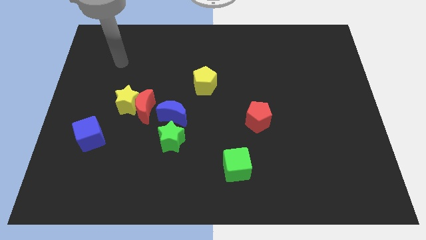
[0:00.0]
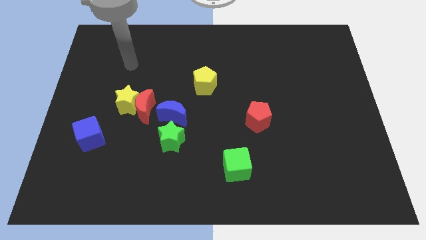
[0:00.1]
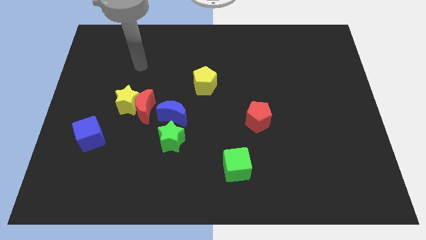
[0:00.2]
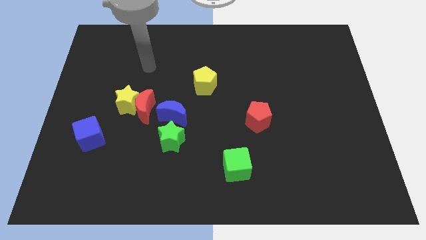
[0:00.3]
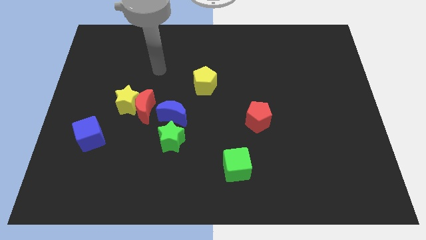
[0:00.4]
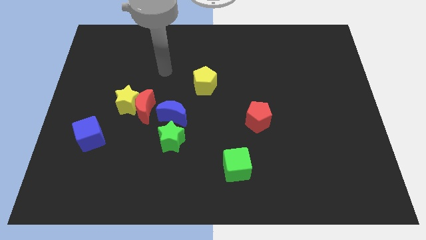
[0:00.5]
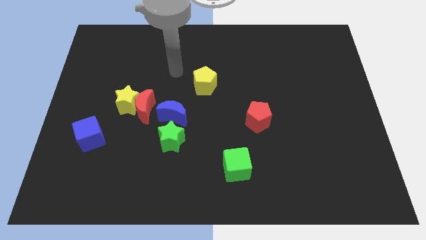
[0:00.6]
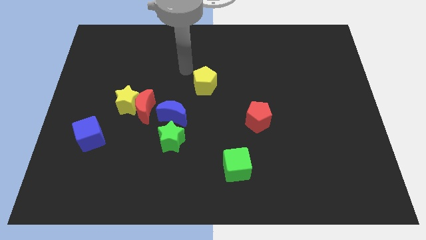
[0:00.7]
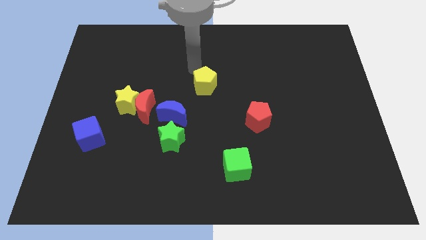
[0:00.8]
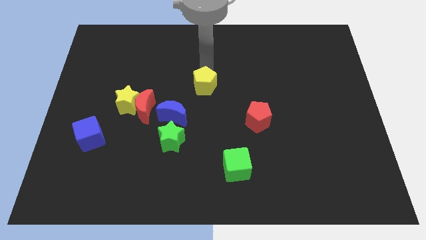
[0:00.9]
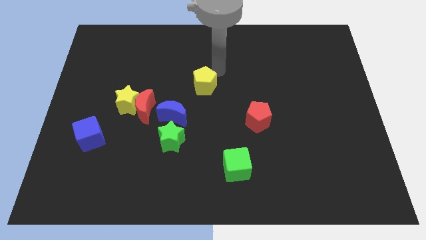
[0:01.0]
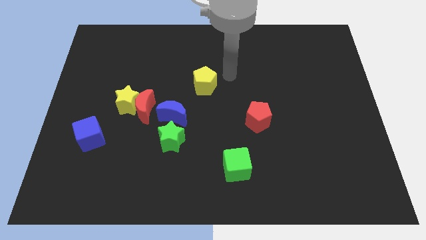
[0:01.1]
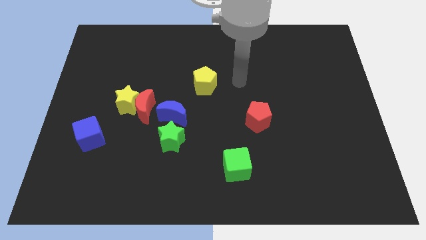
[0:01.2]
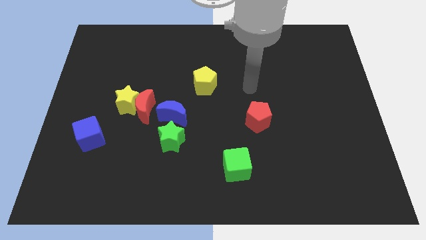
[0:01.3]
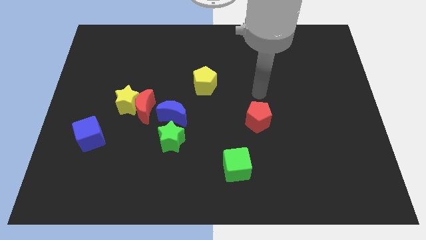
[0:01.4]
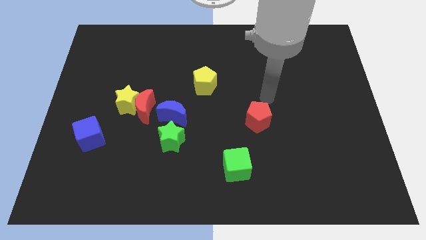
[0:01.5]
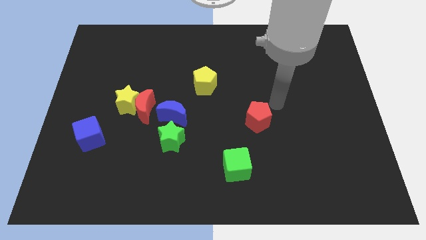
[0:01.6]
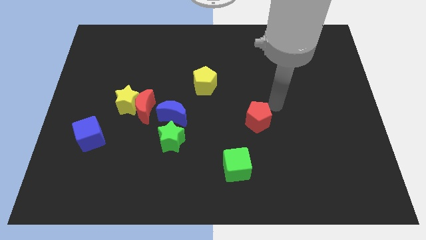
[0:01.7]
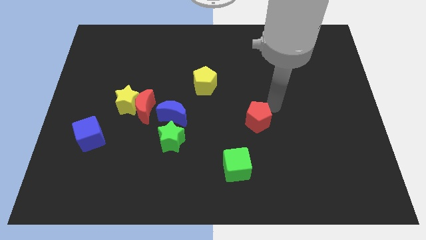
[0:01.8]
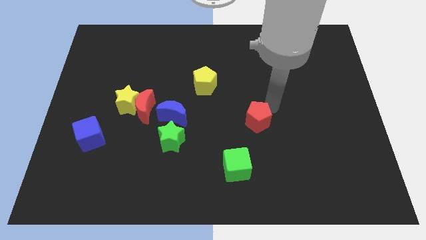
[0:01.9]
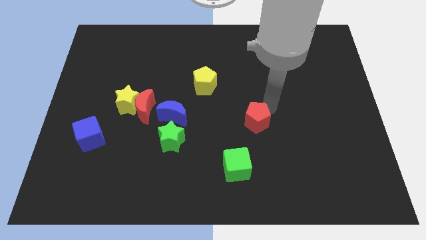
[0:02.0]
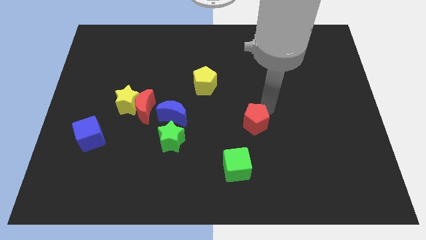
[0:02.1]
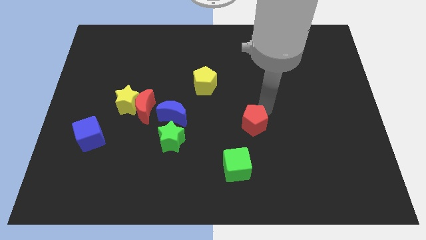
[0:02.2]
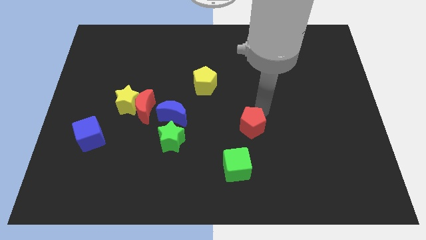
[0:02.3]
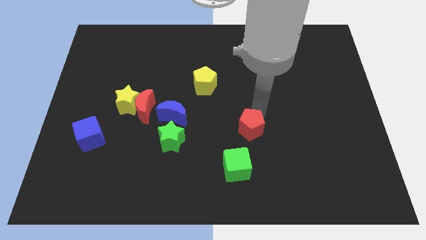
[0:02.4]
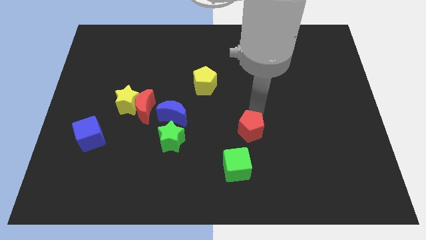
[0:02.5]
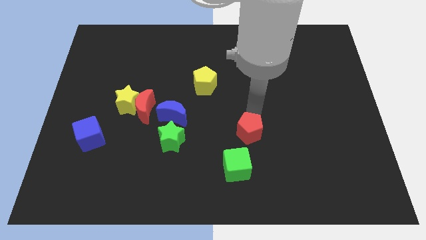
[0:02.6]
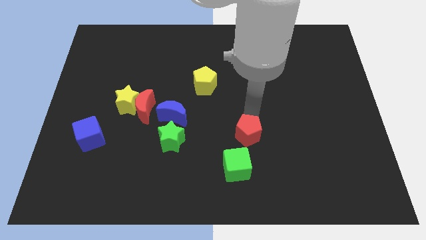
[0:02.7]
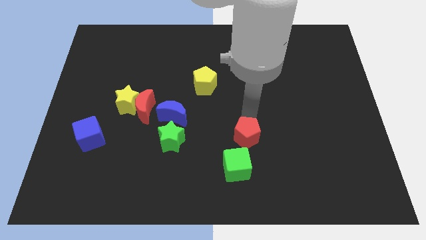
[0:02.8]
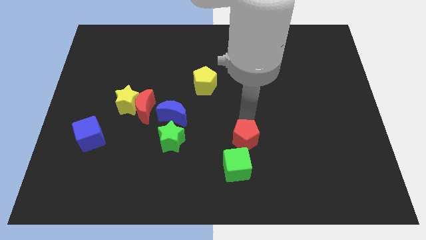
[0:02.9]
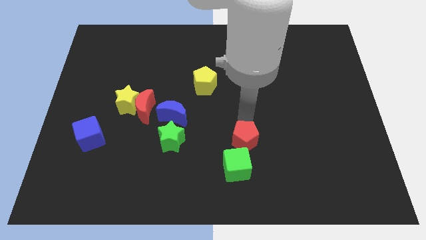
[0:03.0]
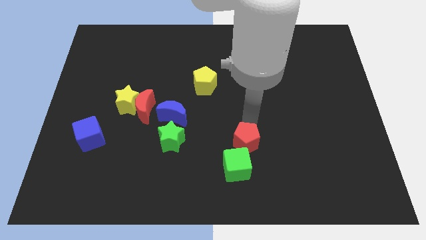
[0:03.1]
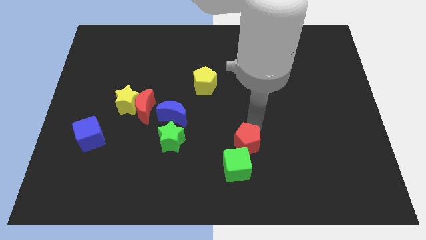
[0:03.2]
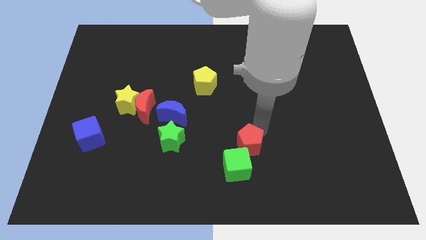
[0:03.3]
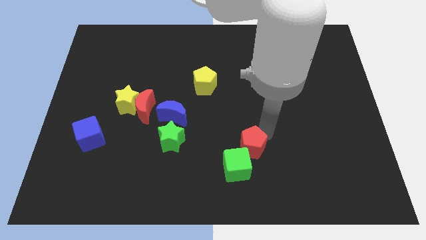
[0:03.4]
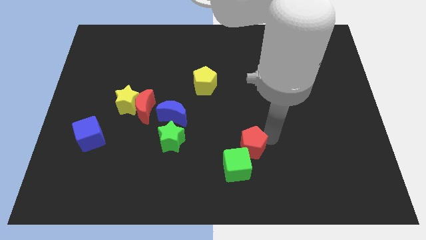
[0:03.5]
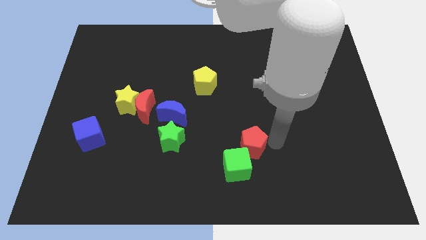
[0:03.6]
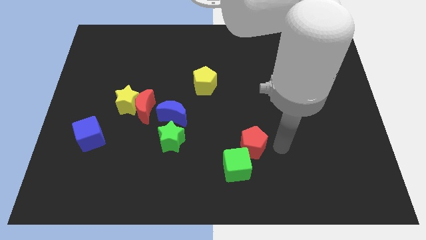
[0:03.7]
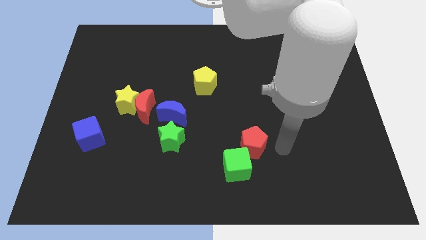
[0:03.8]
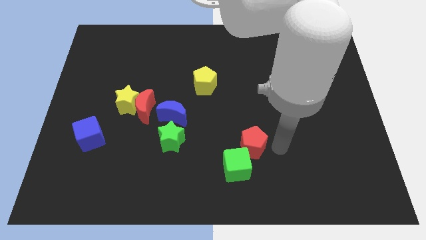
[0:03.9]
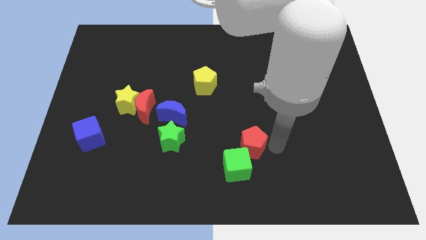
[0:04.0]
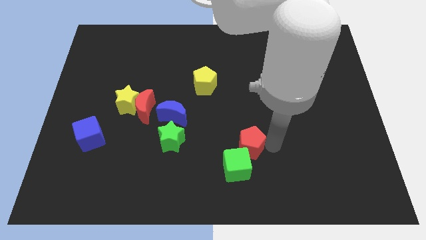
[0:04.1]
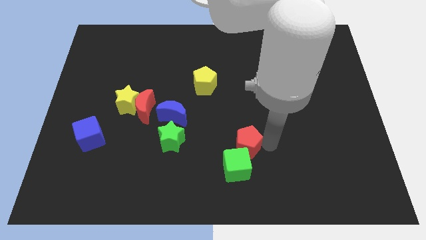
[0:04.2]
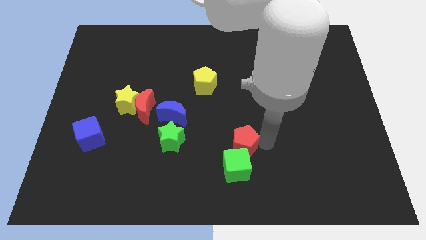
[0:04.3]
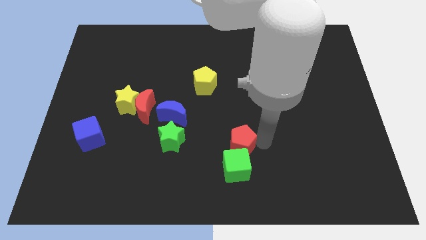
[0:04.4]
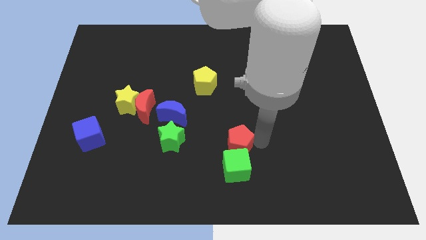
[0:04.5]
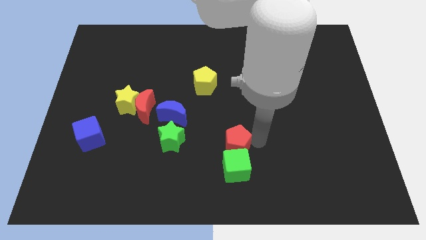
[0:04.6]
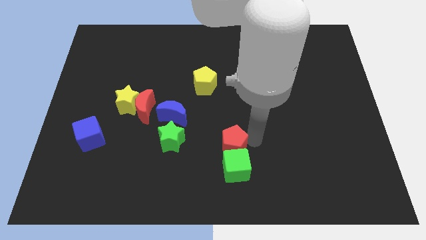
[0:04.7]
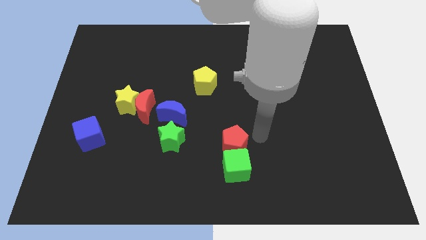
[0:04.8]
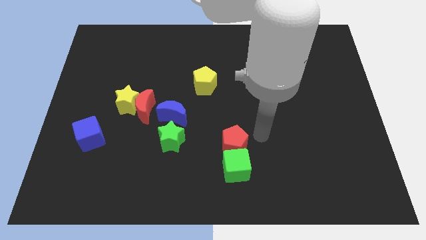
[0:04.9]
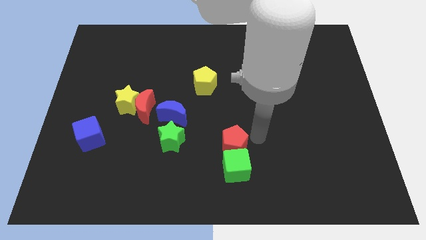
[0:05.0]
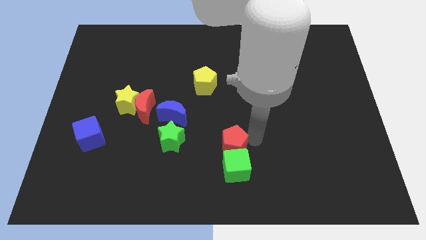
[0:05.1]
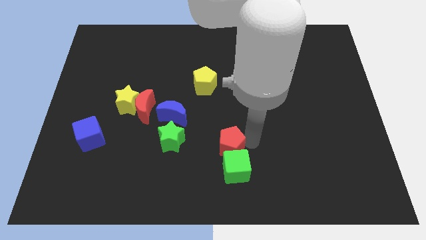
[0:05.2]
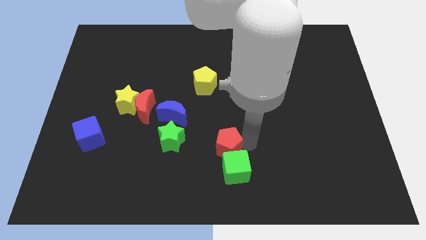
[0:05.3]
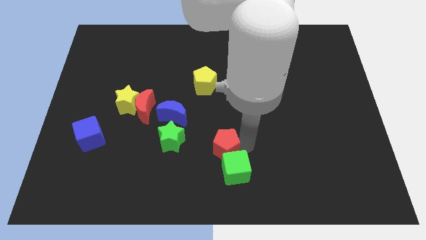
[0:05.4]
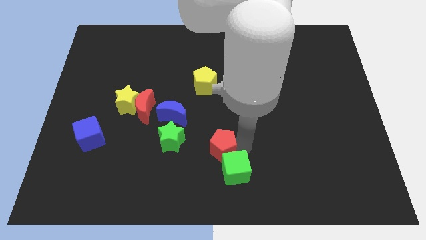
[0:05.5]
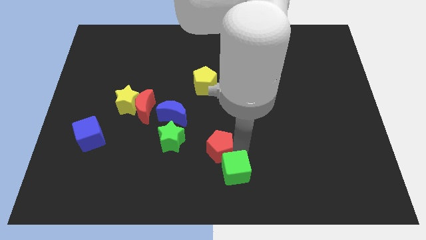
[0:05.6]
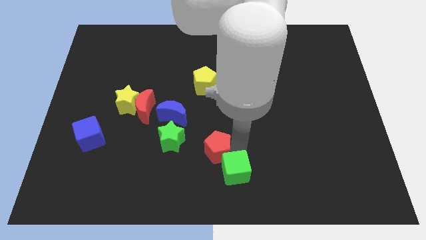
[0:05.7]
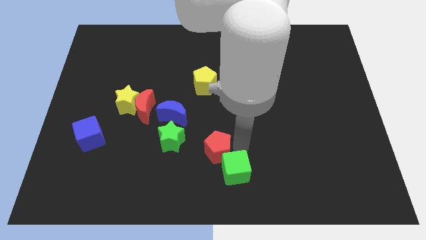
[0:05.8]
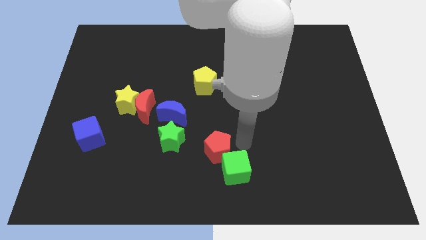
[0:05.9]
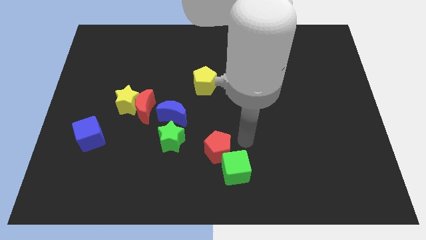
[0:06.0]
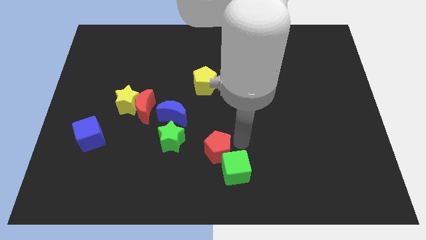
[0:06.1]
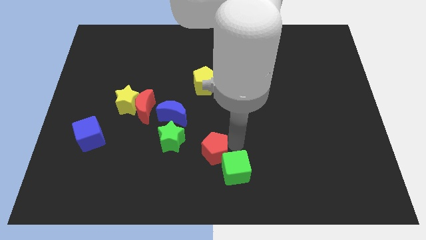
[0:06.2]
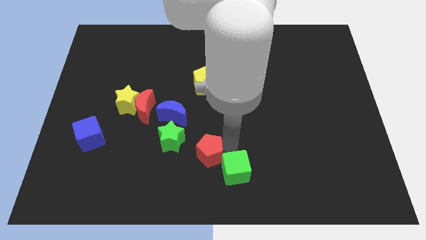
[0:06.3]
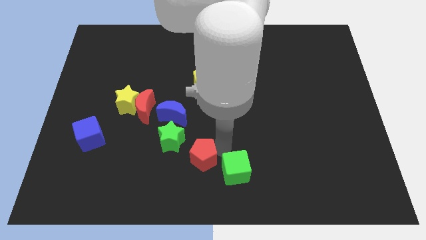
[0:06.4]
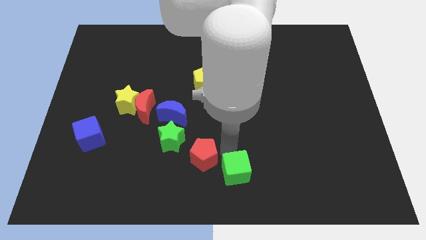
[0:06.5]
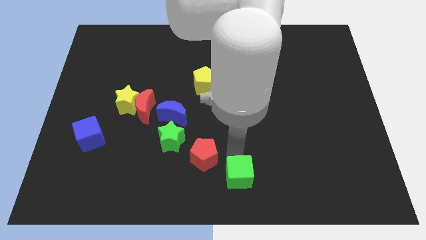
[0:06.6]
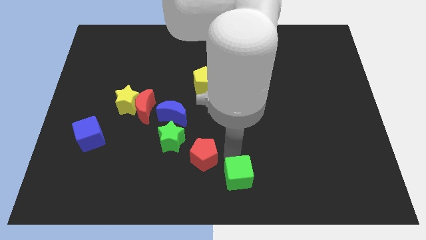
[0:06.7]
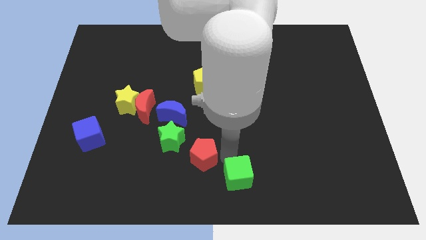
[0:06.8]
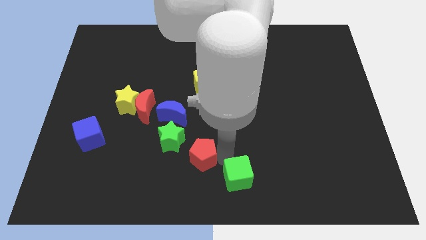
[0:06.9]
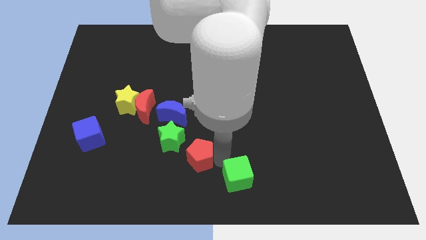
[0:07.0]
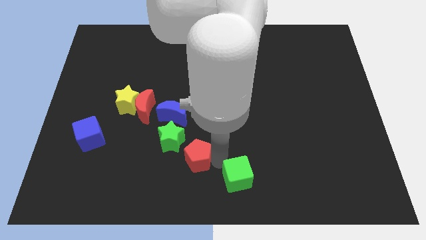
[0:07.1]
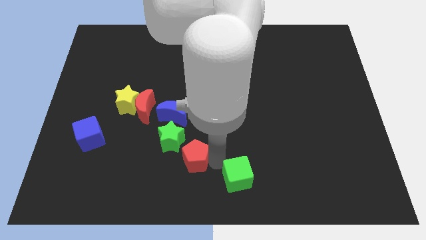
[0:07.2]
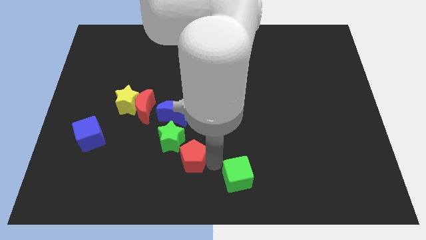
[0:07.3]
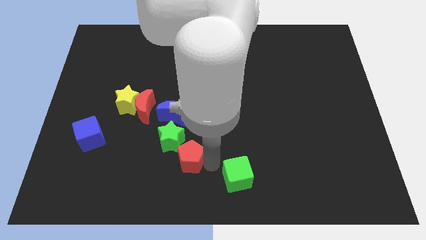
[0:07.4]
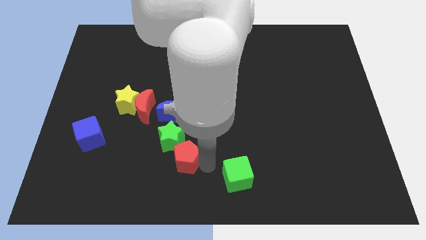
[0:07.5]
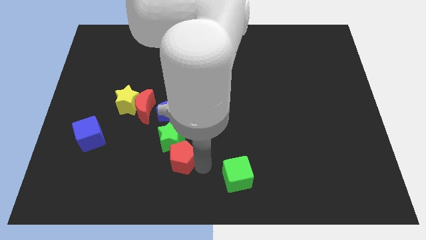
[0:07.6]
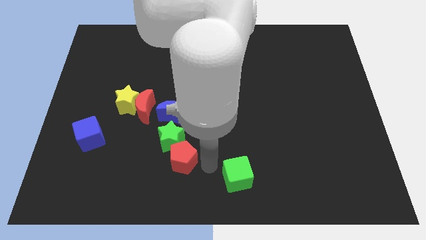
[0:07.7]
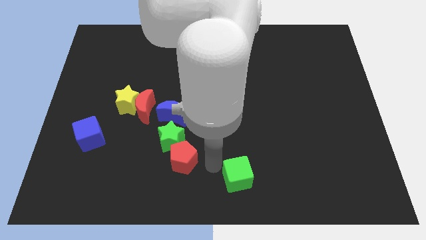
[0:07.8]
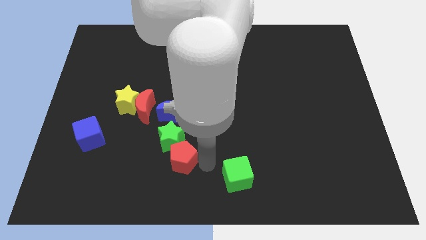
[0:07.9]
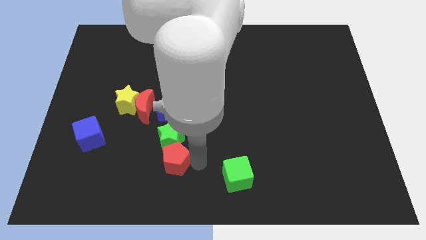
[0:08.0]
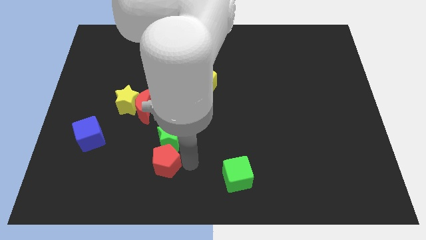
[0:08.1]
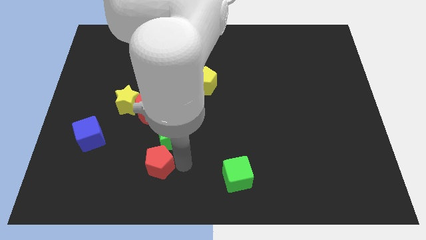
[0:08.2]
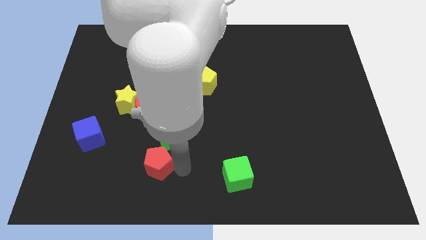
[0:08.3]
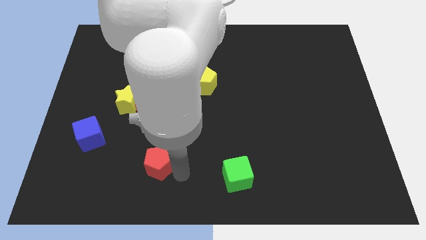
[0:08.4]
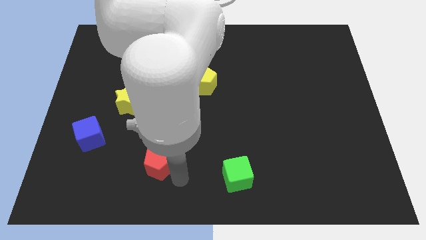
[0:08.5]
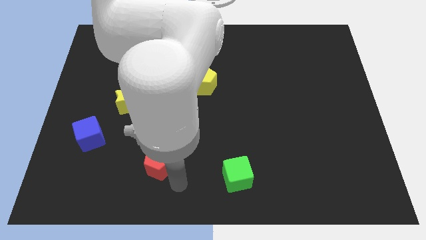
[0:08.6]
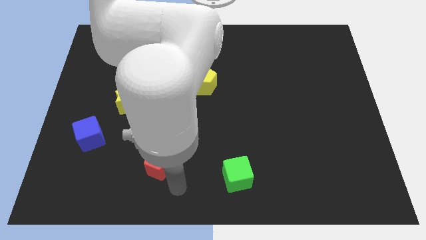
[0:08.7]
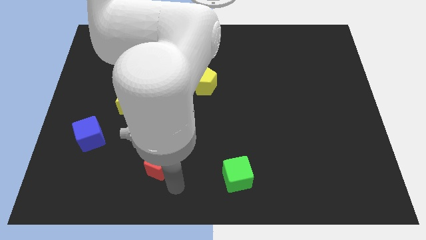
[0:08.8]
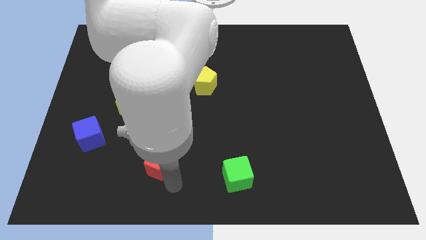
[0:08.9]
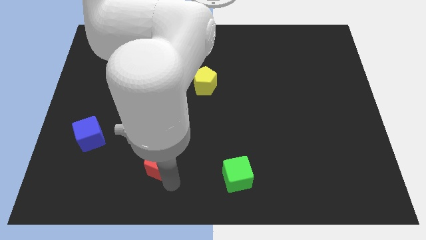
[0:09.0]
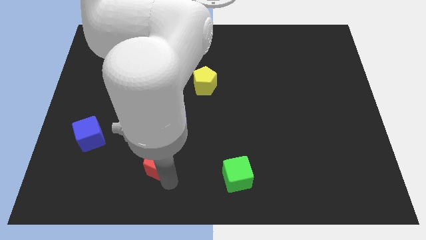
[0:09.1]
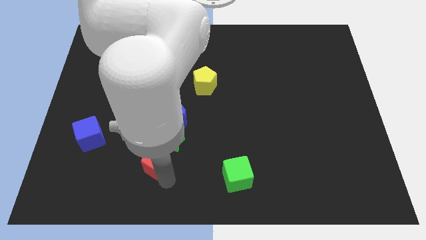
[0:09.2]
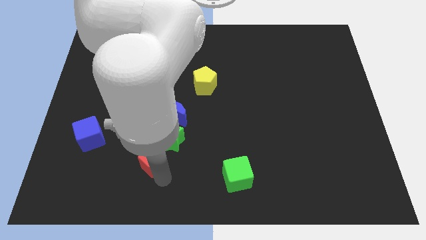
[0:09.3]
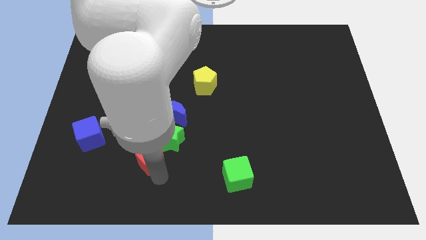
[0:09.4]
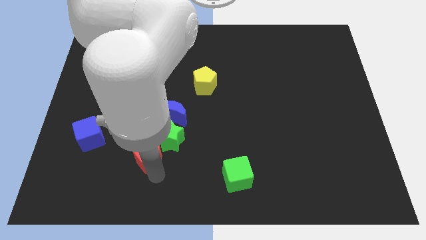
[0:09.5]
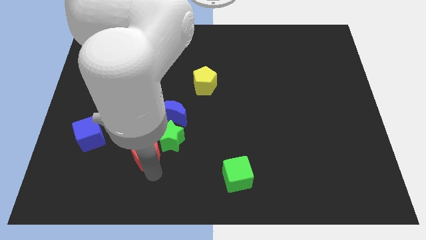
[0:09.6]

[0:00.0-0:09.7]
slide the red pentagon left
